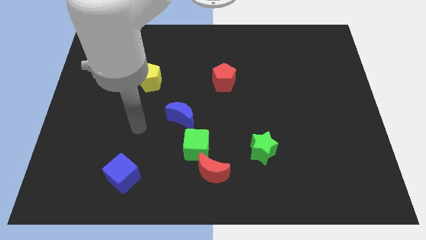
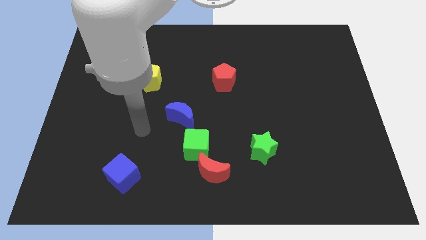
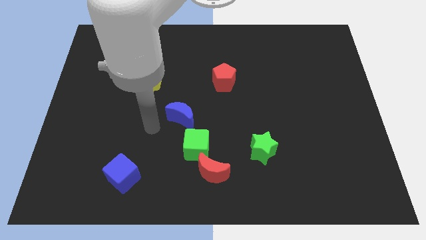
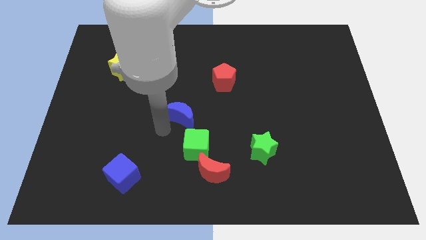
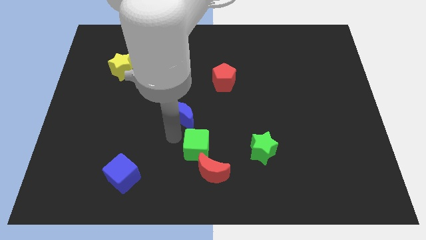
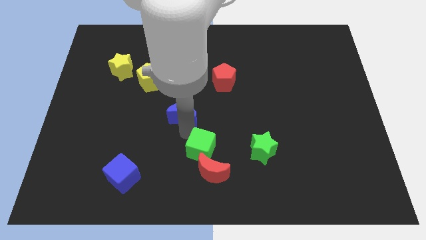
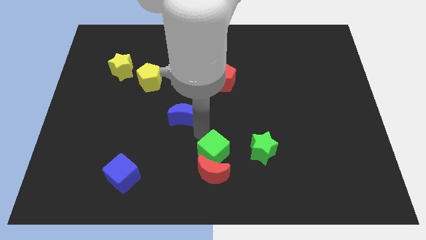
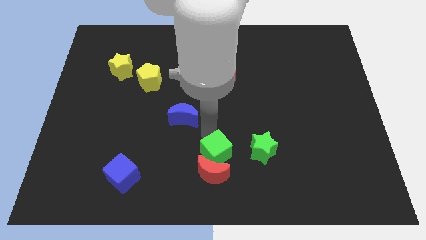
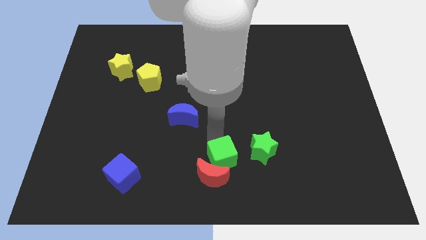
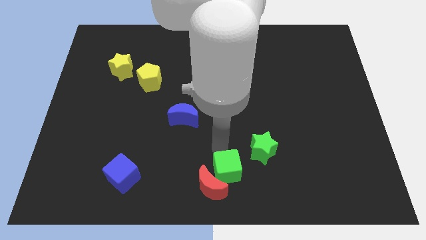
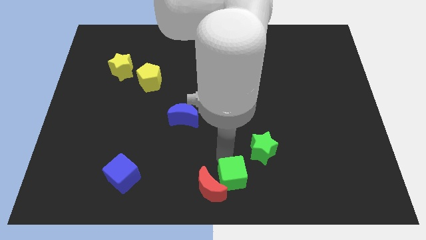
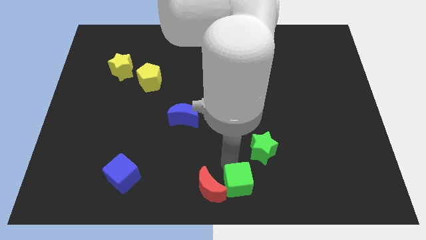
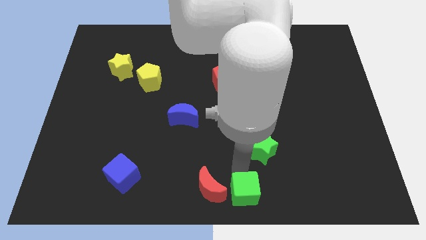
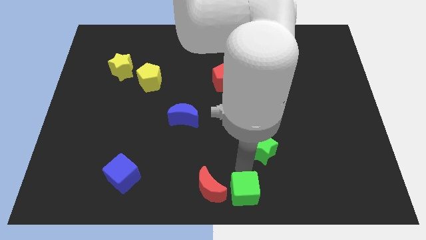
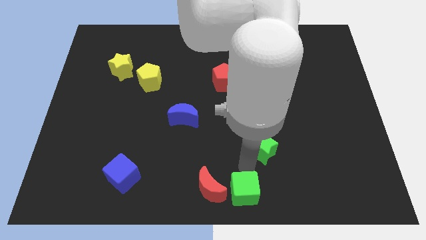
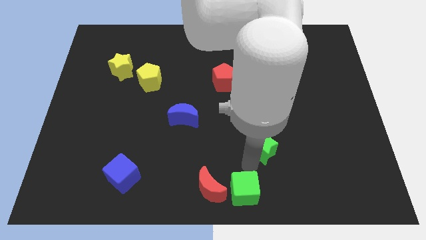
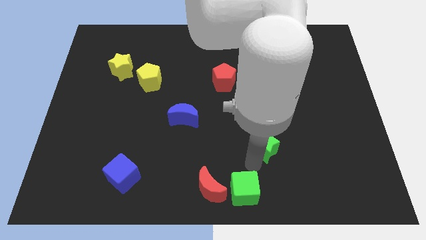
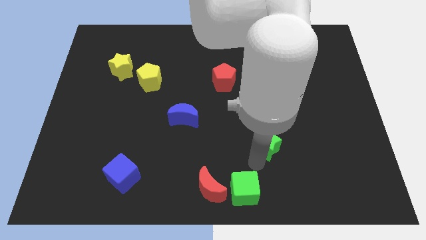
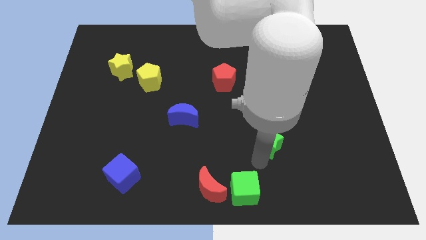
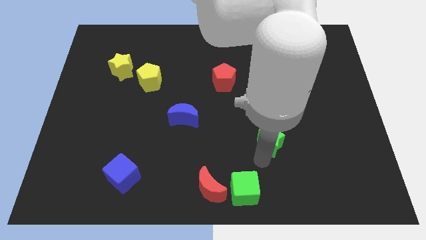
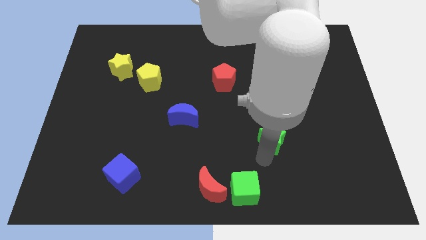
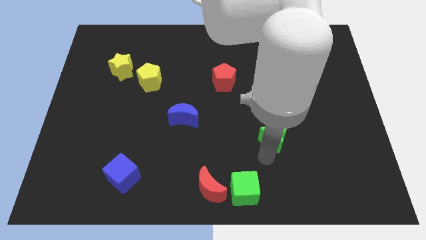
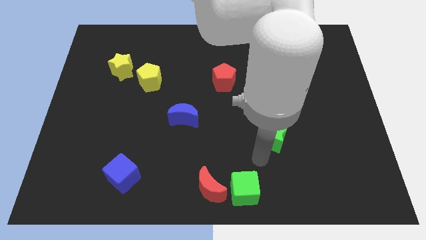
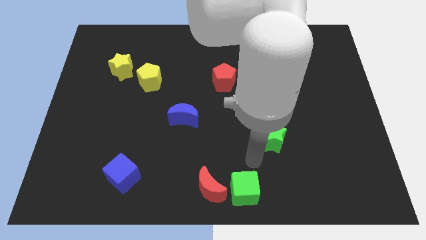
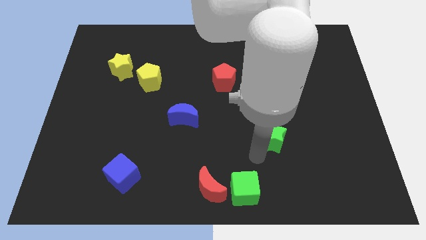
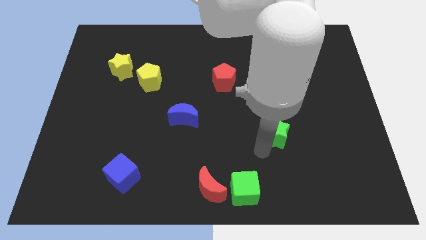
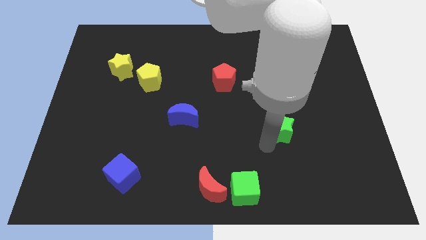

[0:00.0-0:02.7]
slightly push the green star upwards and to the right diagonally

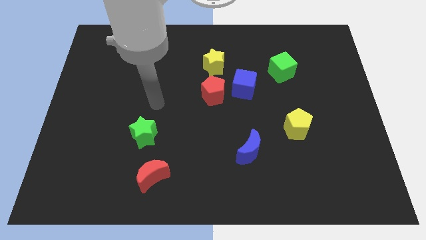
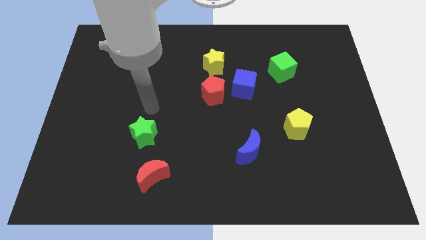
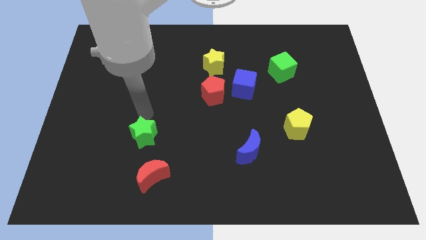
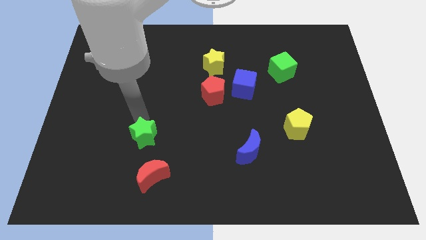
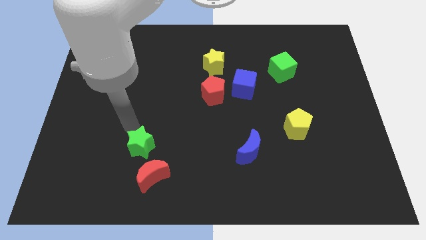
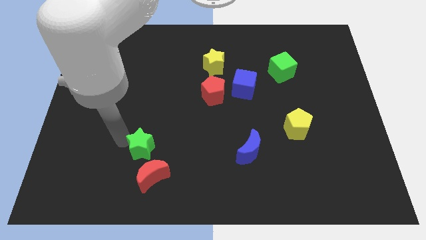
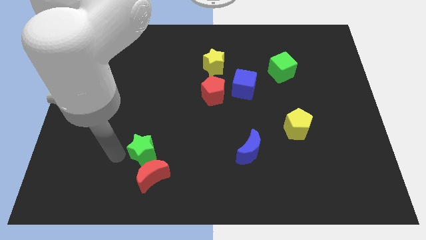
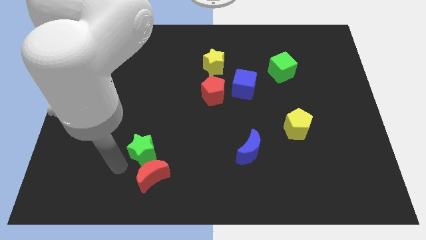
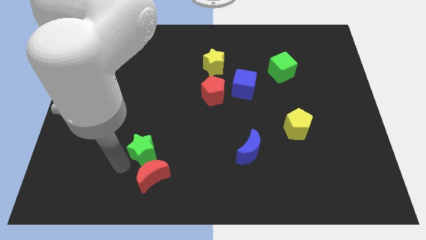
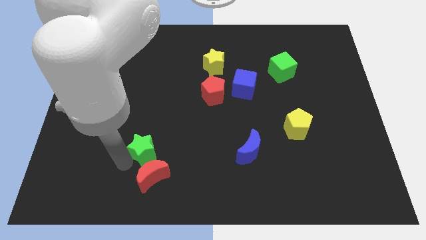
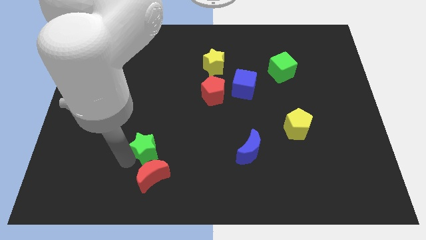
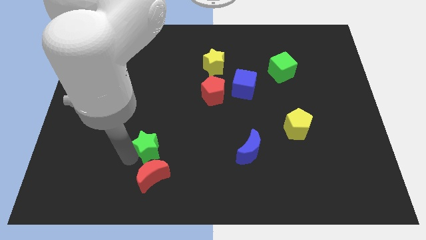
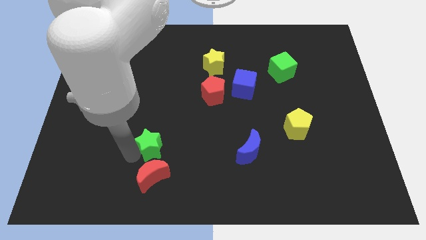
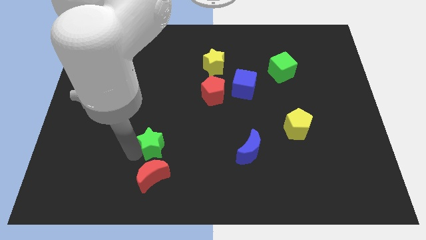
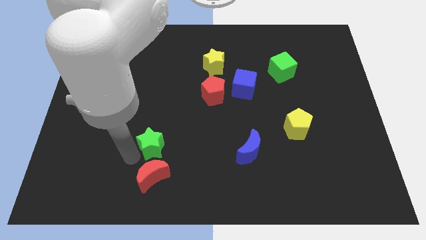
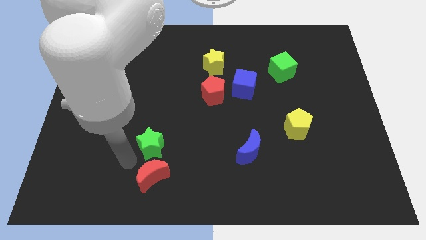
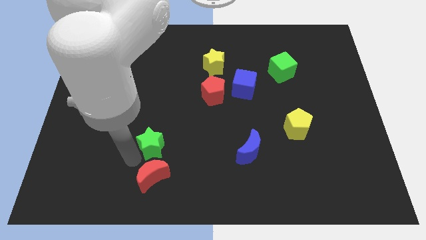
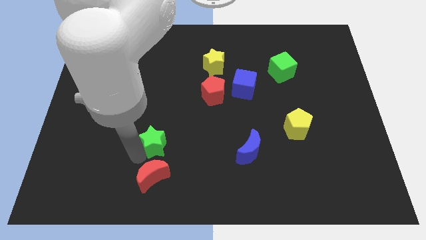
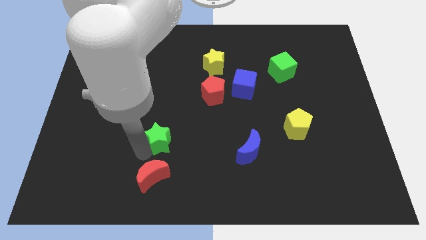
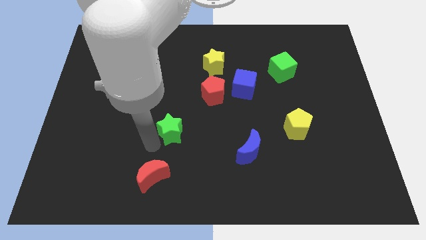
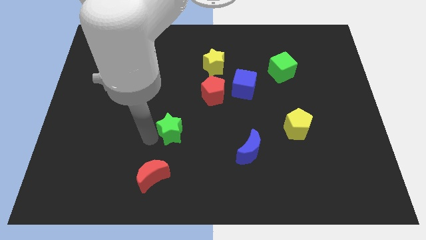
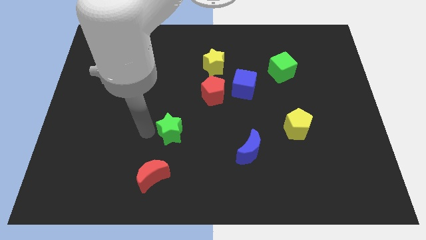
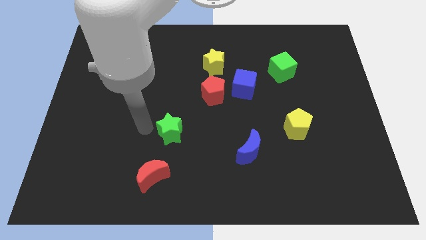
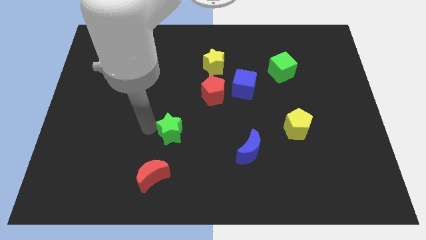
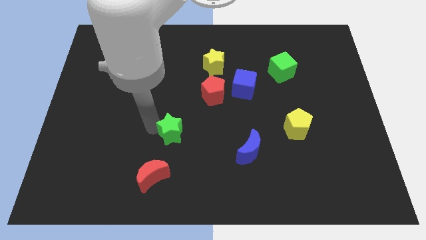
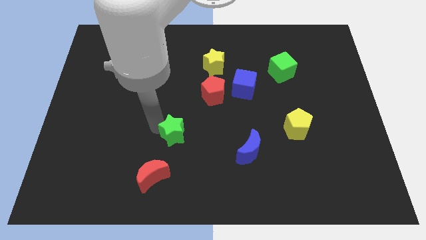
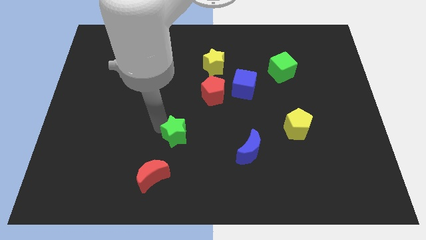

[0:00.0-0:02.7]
slide the green star right a bit

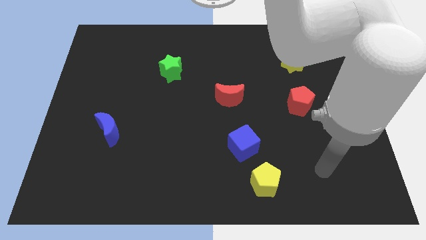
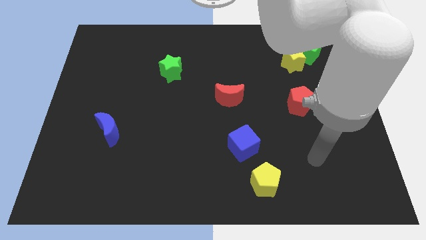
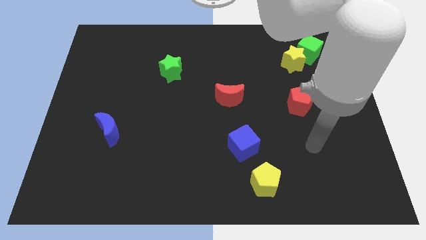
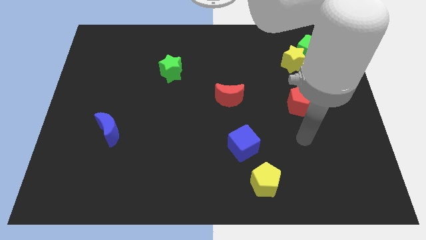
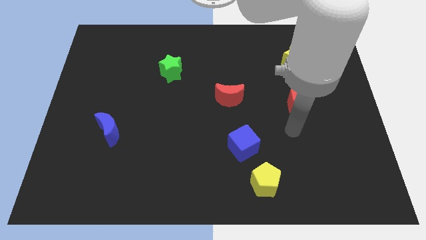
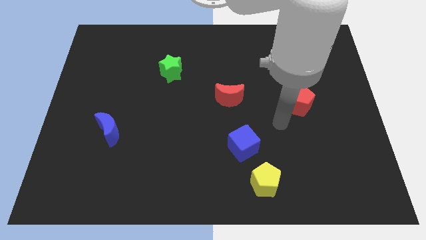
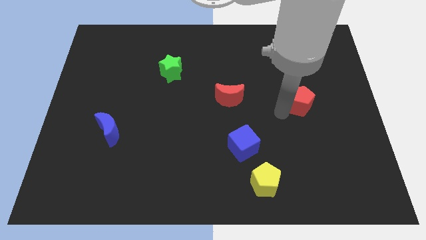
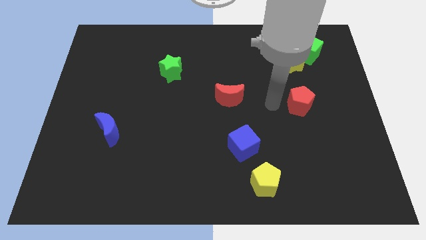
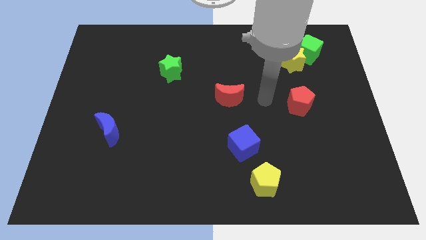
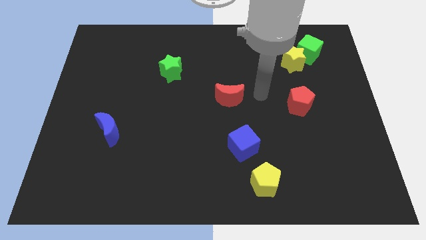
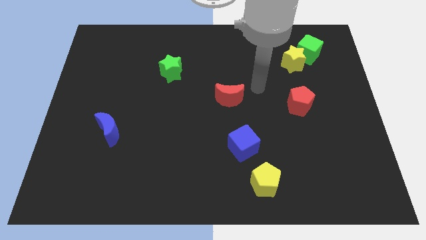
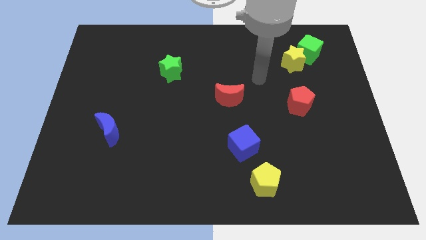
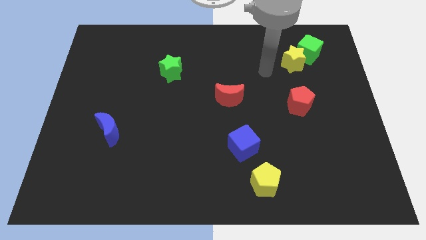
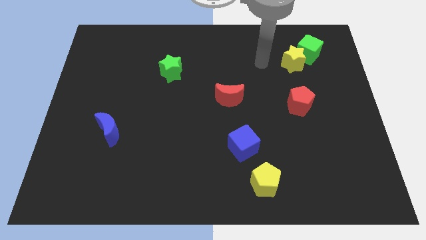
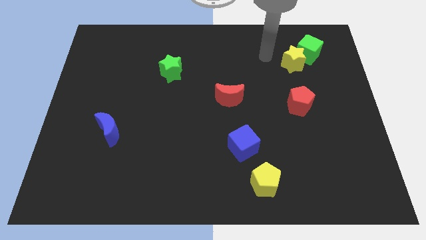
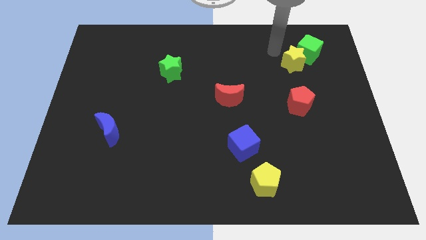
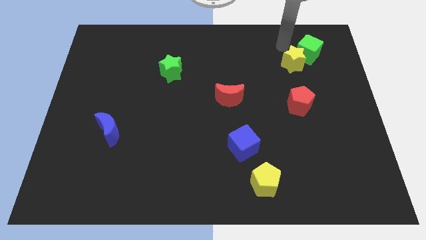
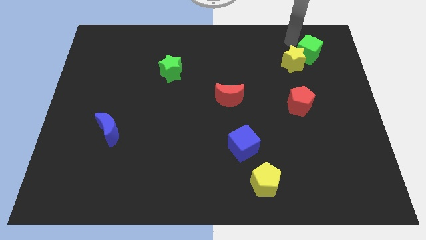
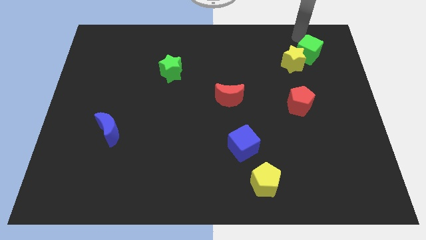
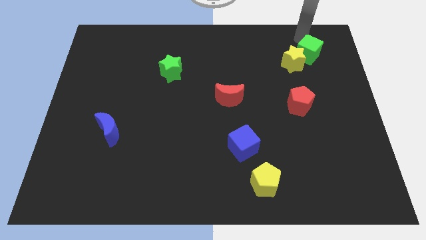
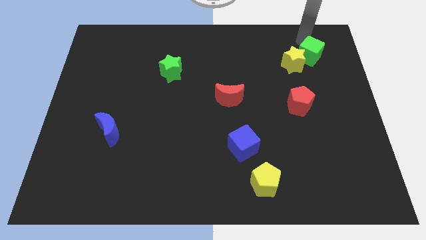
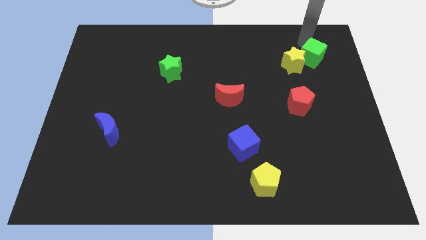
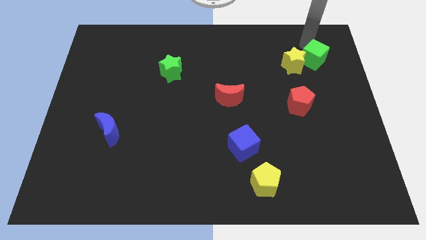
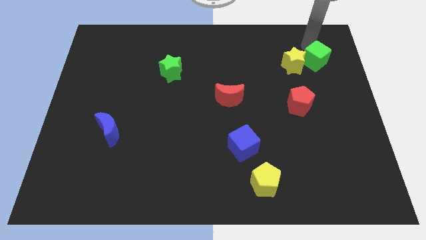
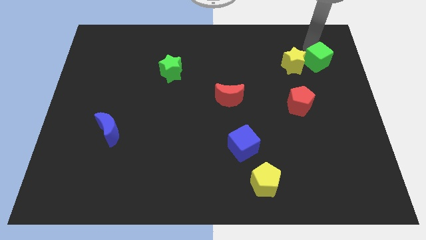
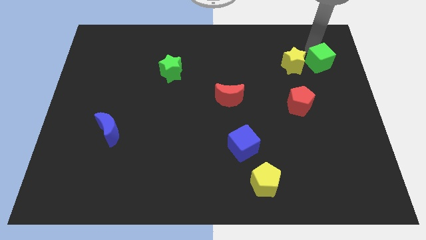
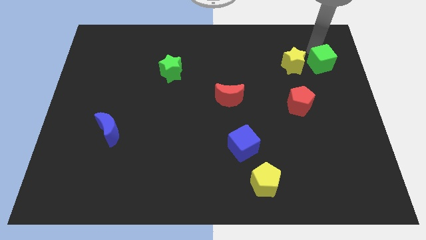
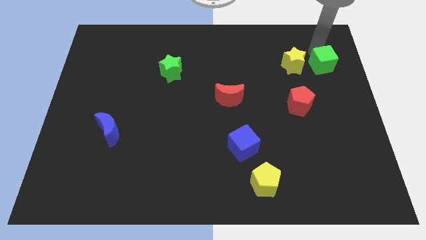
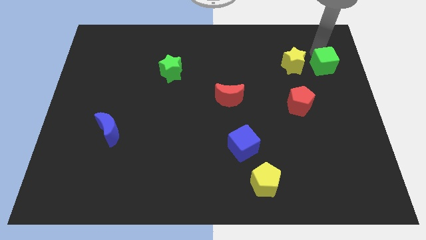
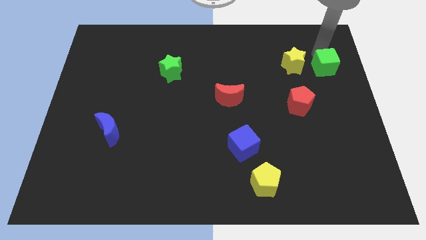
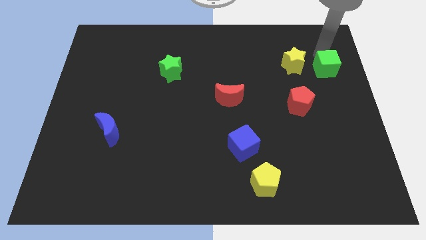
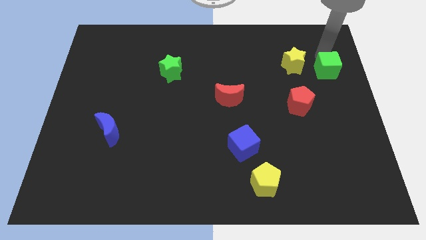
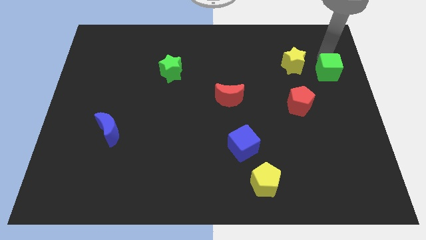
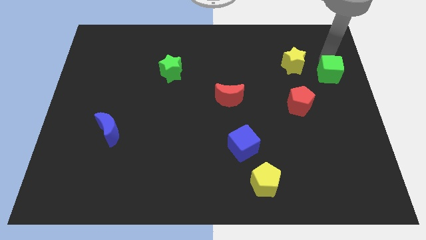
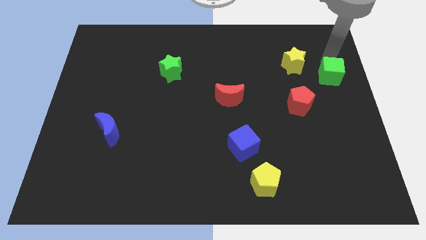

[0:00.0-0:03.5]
slightly move the green cube downwards
